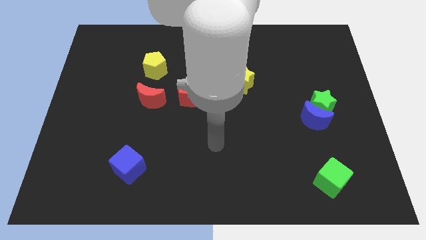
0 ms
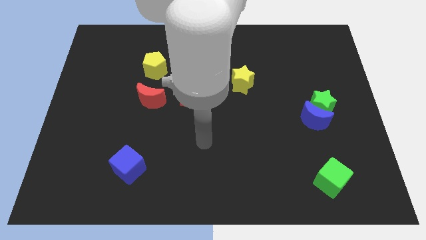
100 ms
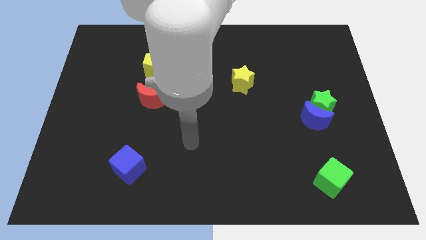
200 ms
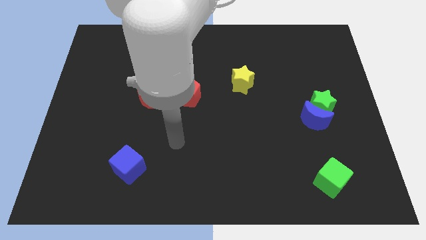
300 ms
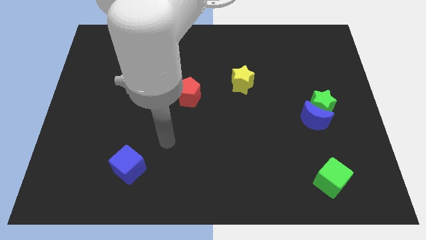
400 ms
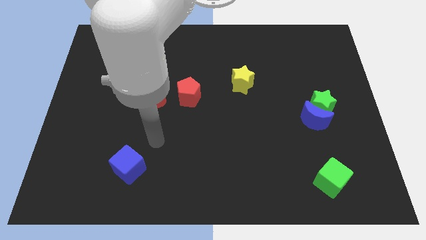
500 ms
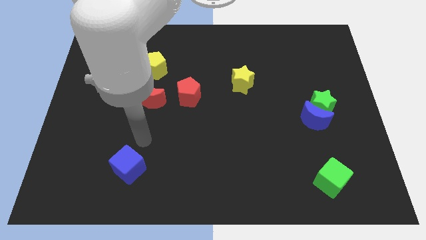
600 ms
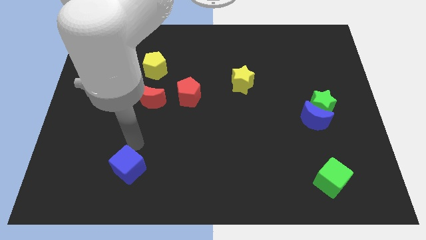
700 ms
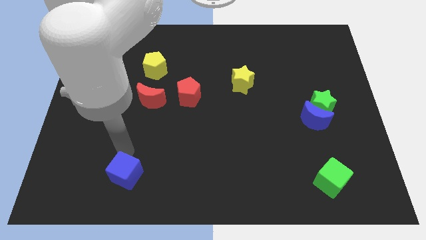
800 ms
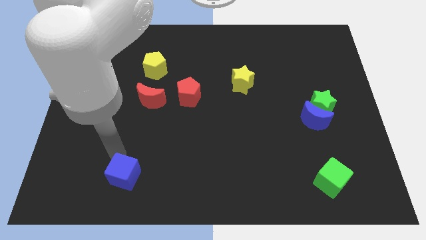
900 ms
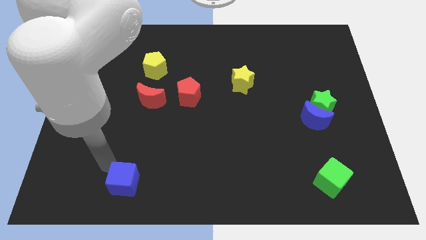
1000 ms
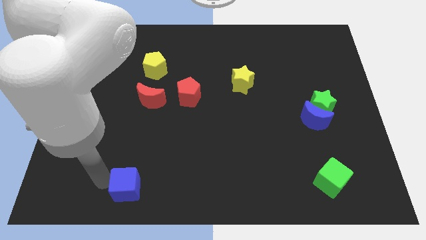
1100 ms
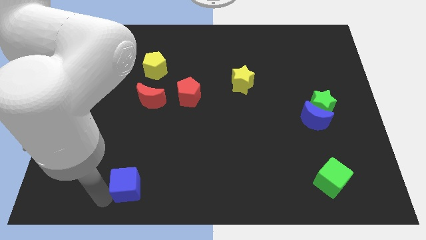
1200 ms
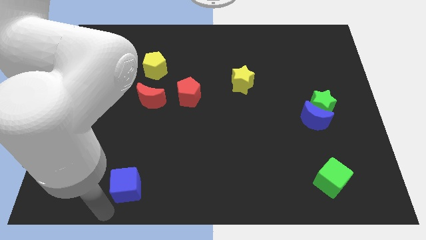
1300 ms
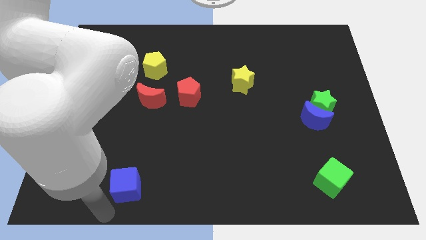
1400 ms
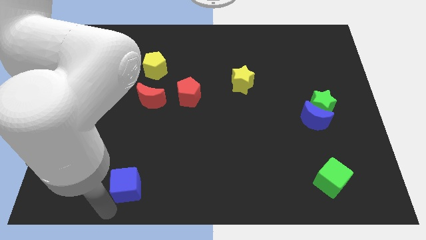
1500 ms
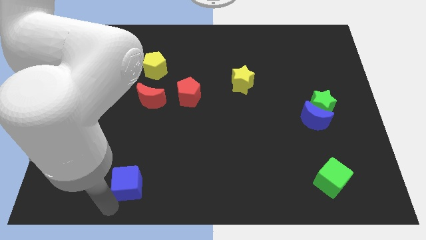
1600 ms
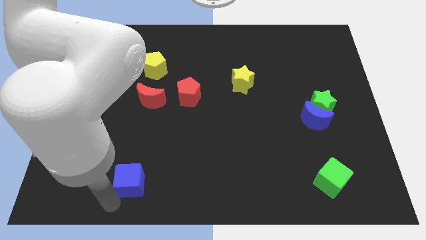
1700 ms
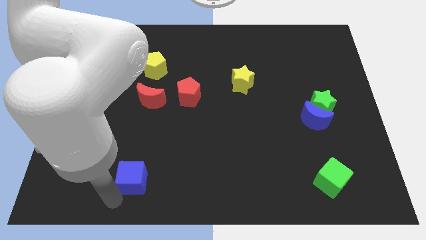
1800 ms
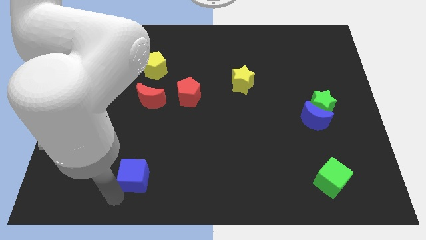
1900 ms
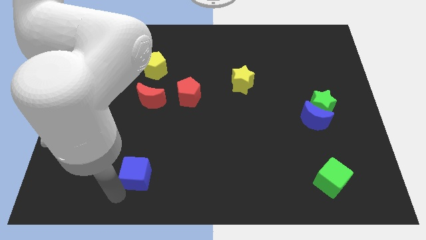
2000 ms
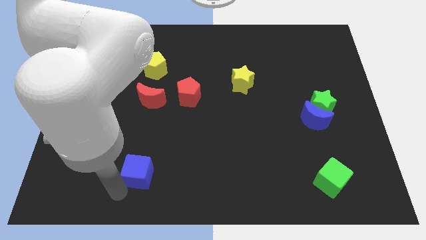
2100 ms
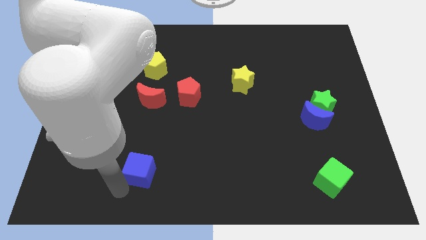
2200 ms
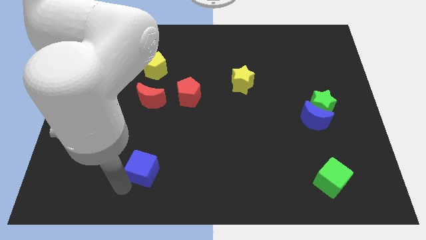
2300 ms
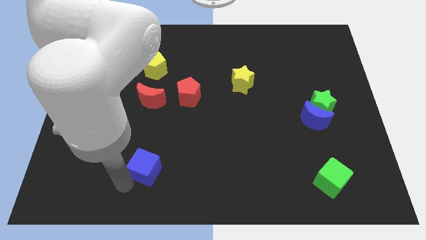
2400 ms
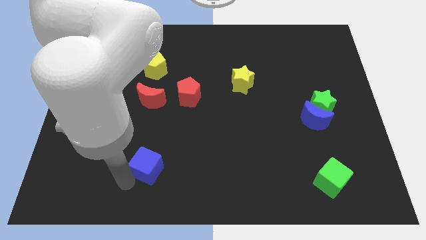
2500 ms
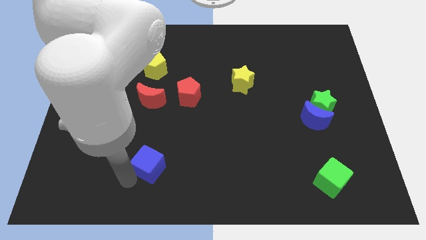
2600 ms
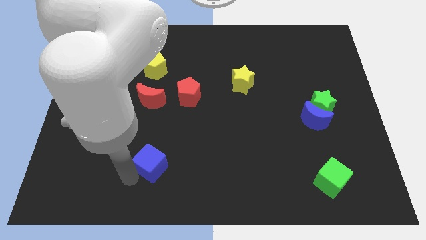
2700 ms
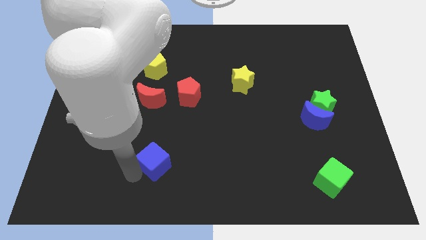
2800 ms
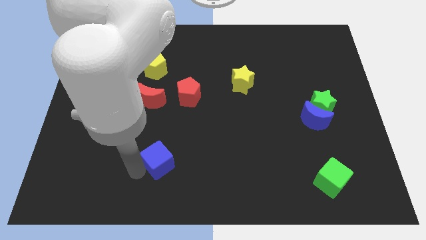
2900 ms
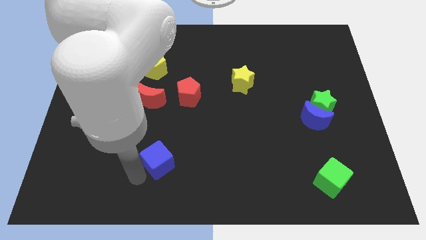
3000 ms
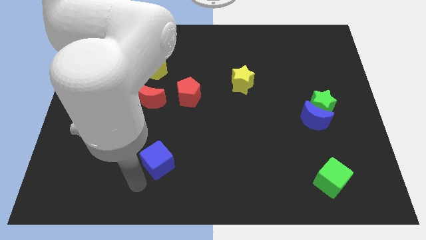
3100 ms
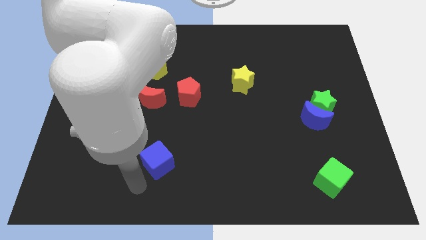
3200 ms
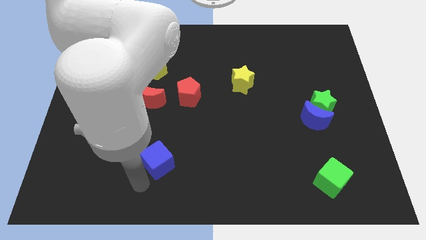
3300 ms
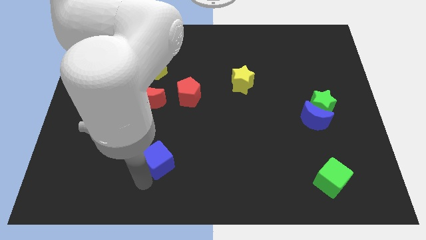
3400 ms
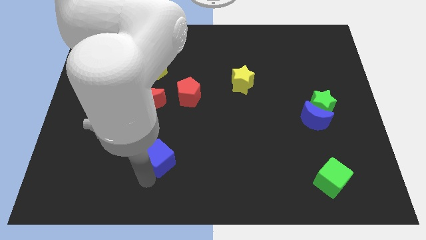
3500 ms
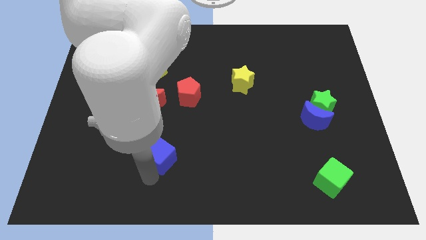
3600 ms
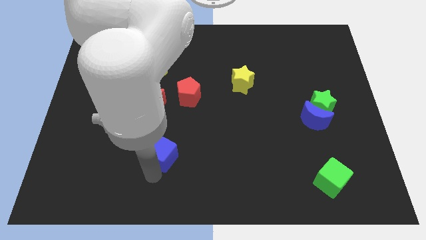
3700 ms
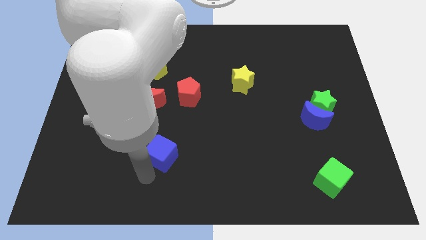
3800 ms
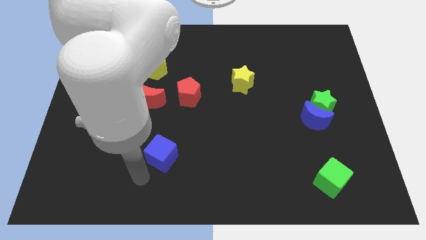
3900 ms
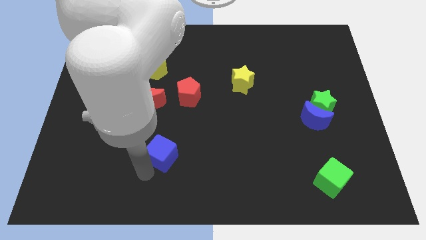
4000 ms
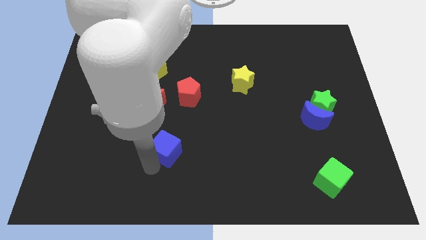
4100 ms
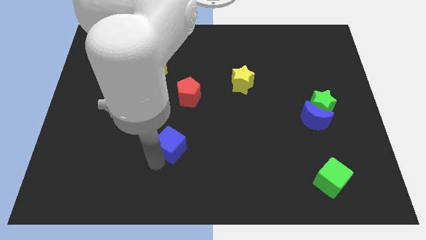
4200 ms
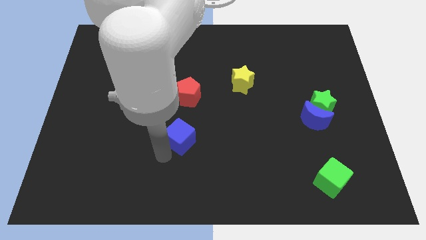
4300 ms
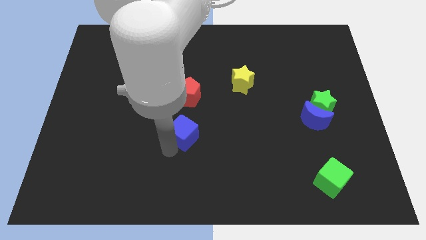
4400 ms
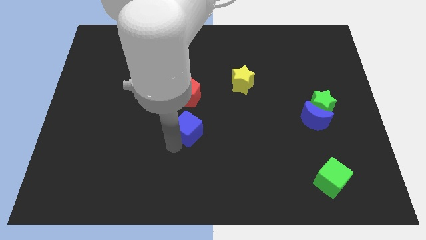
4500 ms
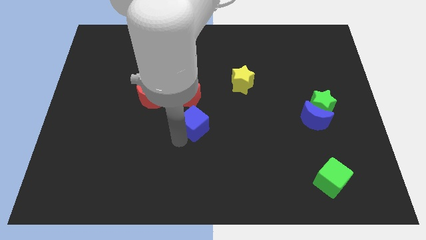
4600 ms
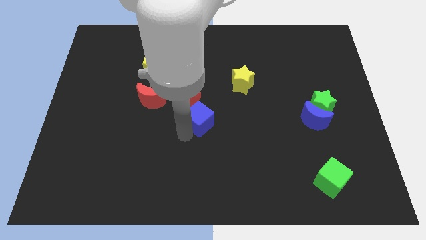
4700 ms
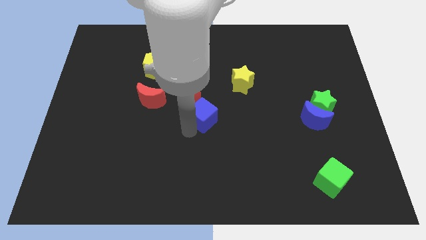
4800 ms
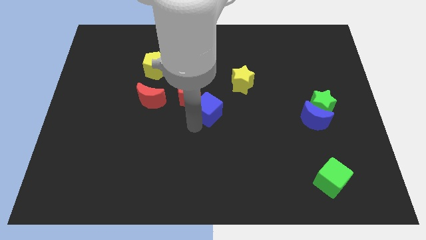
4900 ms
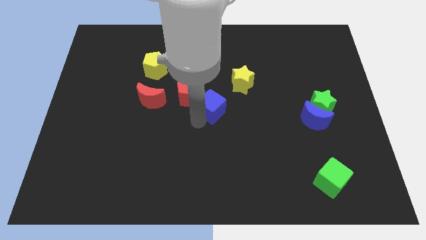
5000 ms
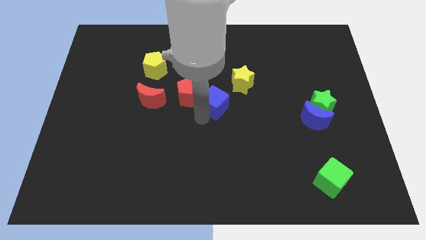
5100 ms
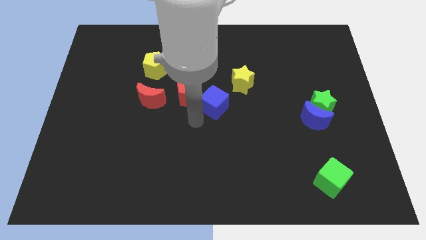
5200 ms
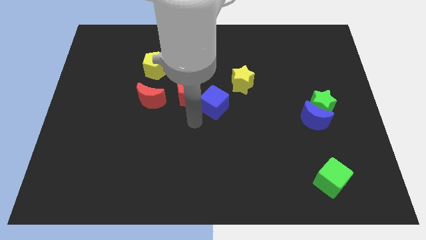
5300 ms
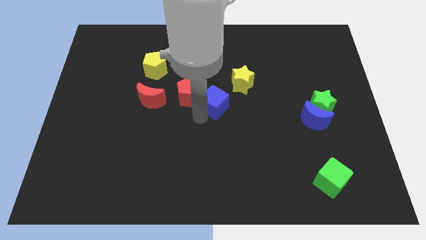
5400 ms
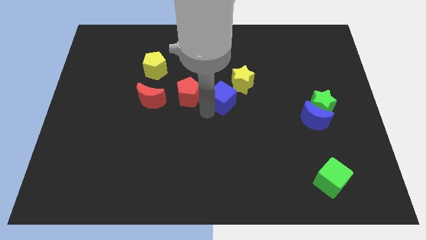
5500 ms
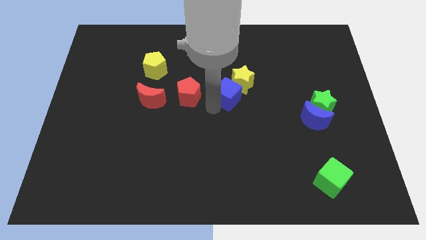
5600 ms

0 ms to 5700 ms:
push the blue cube close to the yellow star
